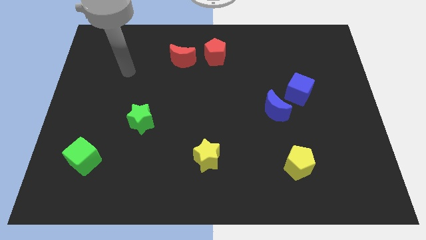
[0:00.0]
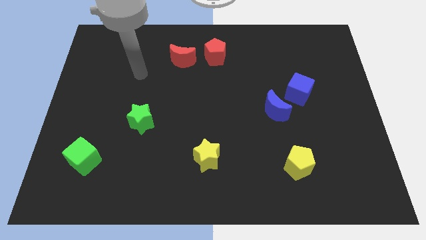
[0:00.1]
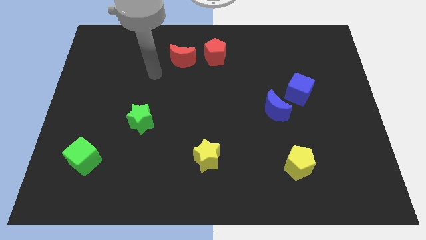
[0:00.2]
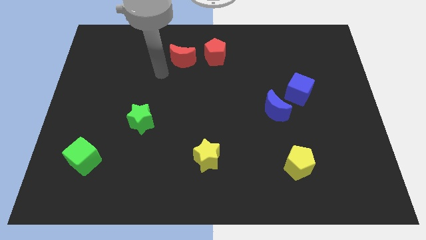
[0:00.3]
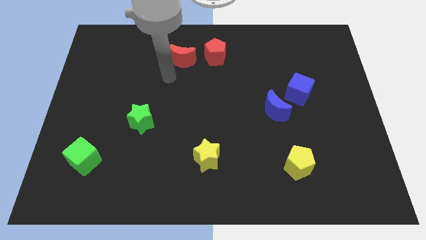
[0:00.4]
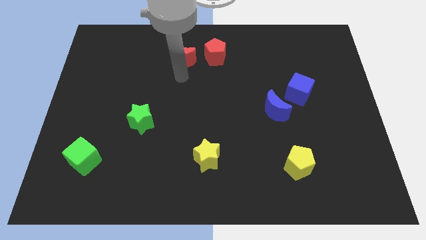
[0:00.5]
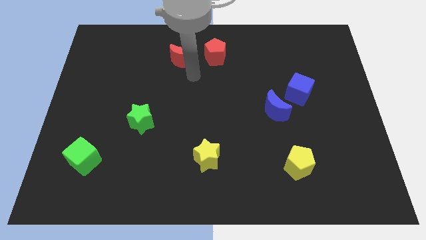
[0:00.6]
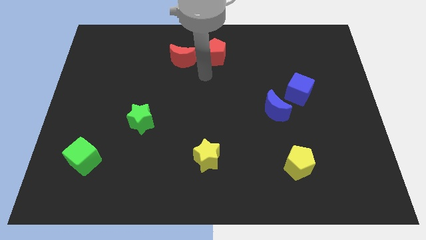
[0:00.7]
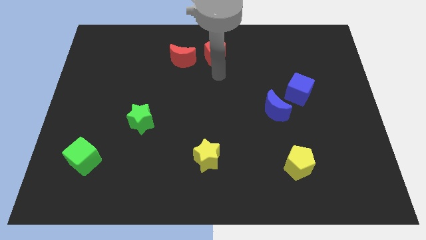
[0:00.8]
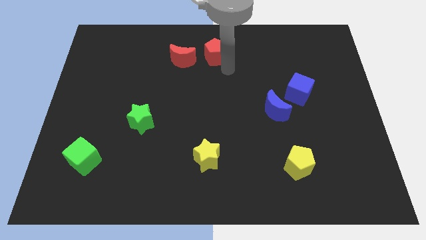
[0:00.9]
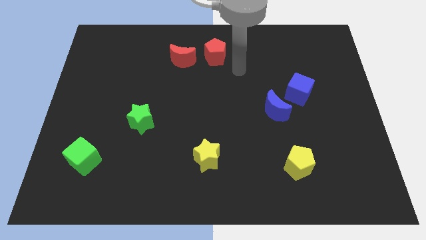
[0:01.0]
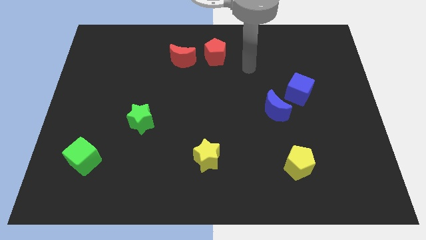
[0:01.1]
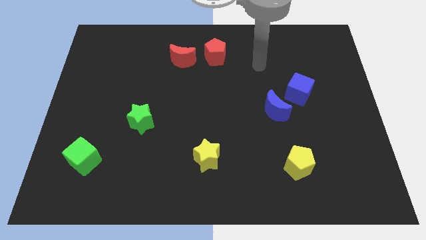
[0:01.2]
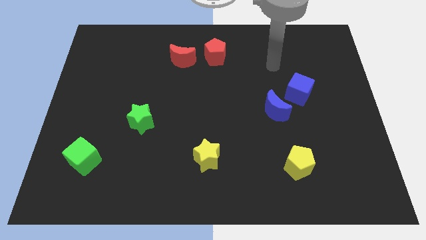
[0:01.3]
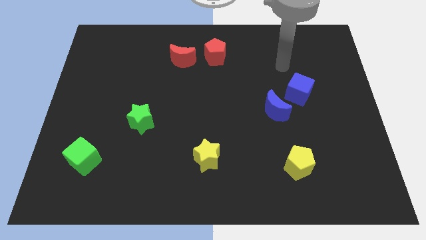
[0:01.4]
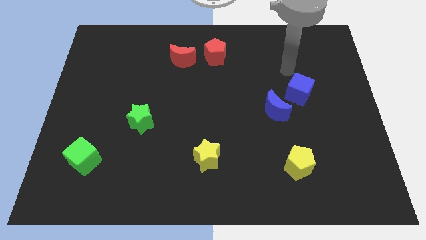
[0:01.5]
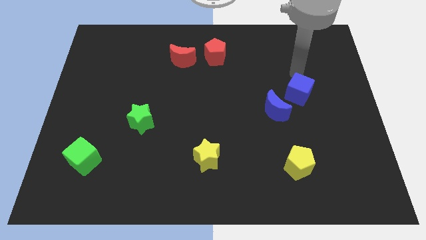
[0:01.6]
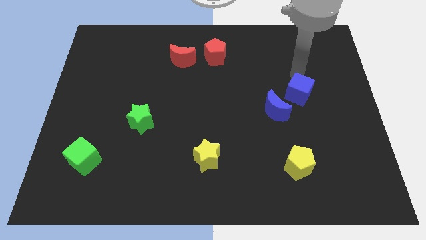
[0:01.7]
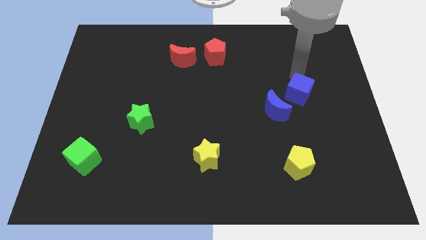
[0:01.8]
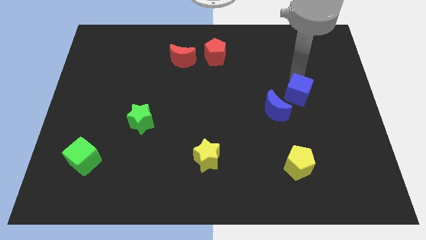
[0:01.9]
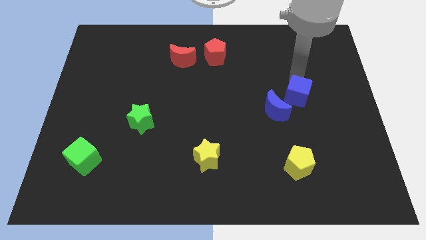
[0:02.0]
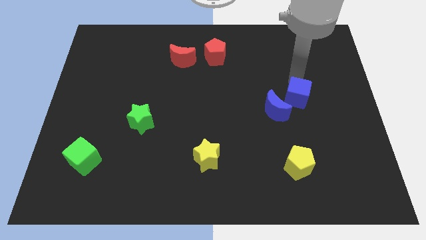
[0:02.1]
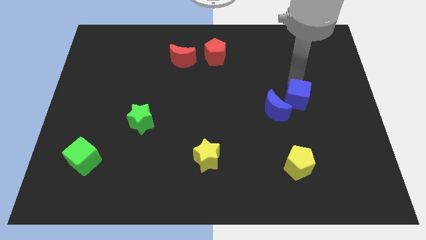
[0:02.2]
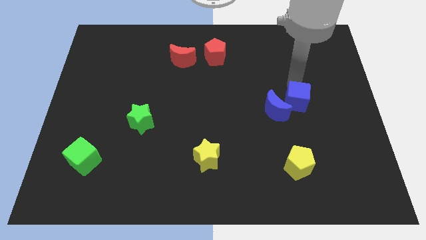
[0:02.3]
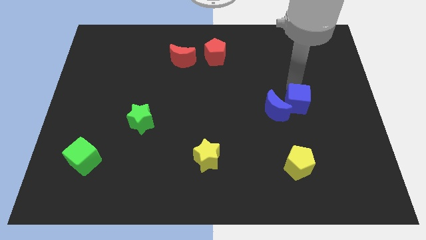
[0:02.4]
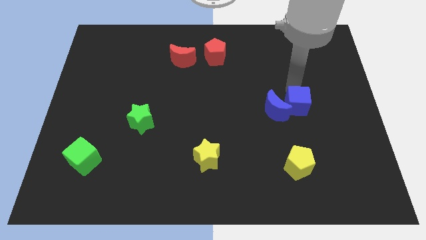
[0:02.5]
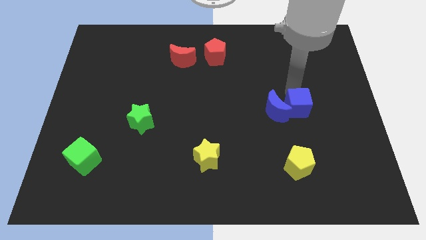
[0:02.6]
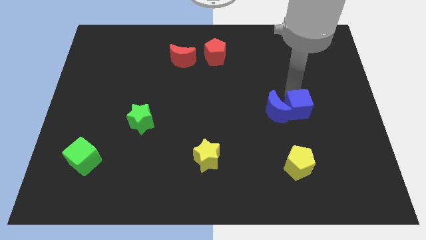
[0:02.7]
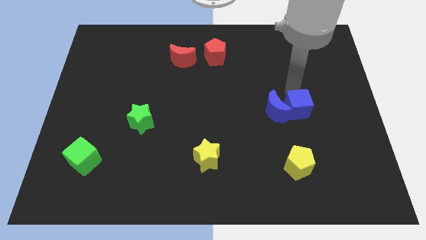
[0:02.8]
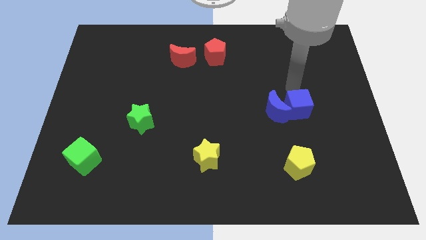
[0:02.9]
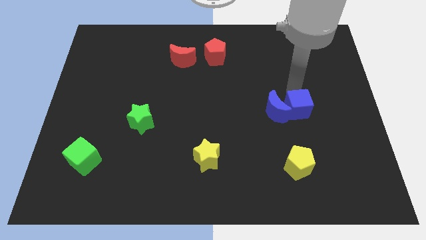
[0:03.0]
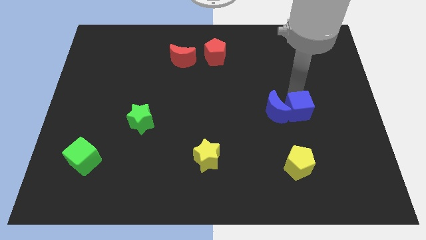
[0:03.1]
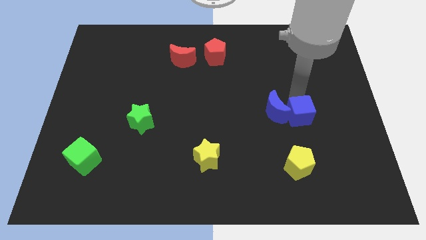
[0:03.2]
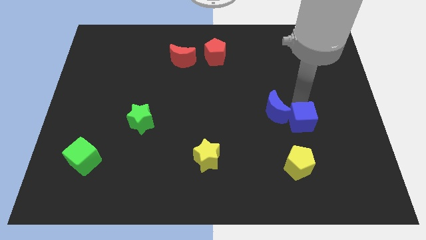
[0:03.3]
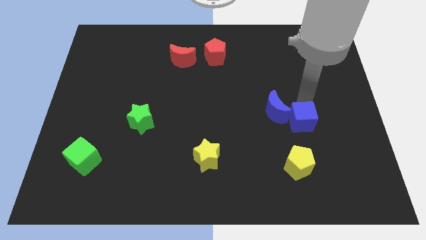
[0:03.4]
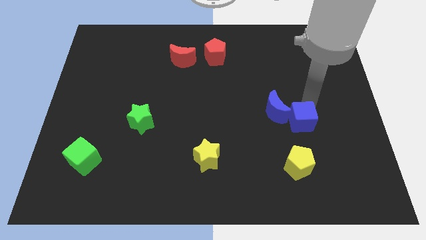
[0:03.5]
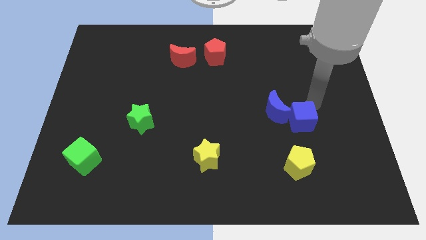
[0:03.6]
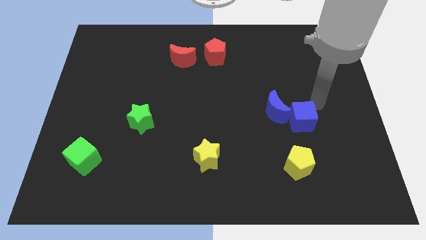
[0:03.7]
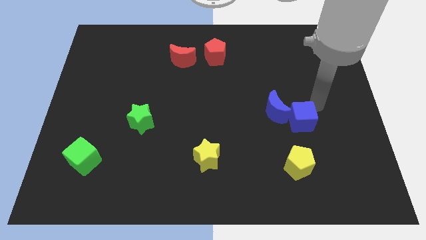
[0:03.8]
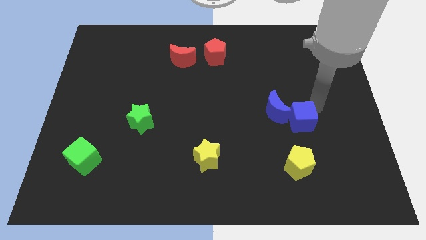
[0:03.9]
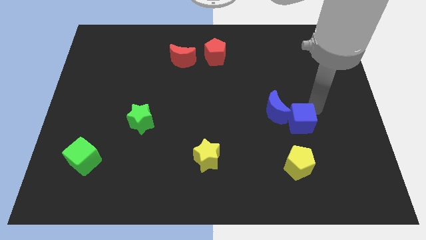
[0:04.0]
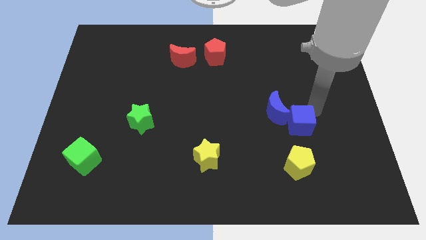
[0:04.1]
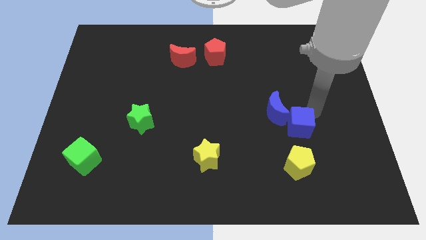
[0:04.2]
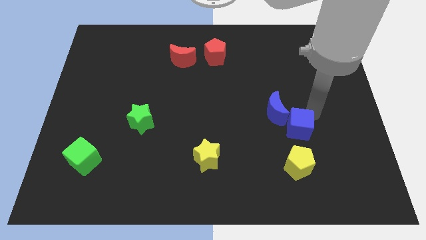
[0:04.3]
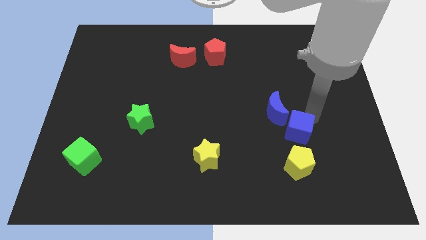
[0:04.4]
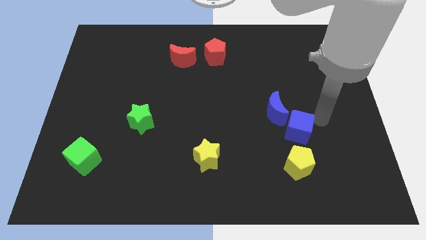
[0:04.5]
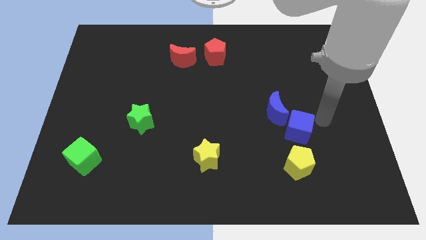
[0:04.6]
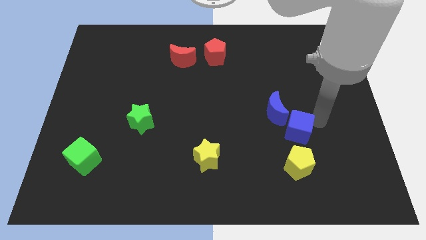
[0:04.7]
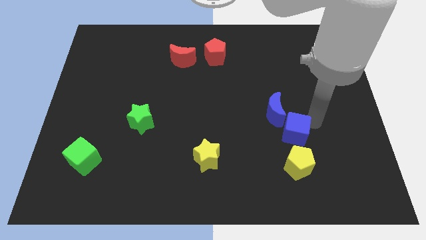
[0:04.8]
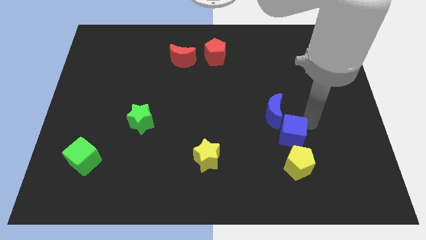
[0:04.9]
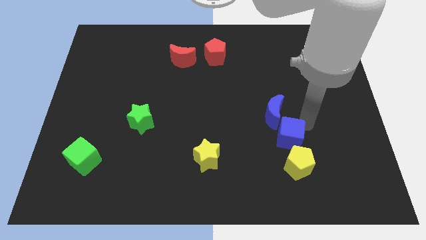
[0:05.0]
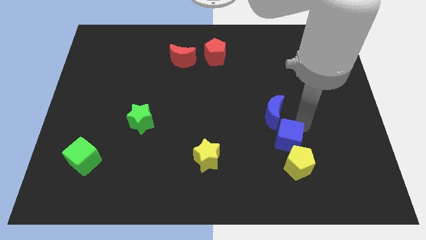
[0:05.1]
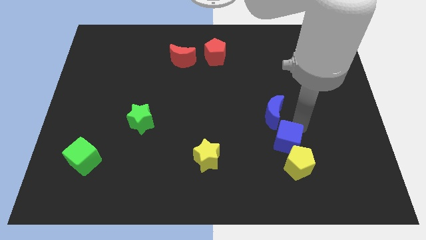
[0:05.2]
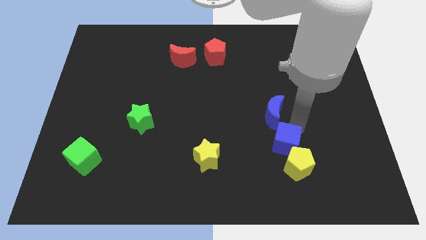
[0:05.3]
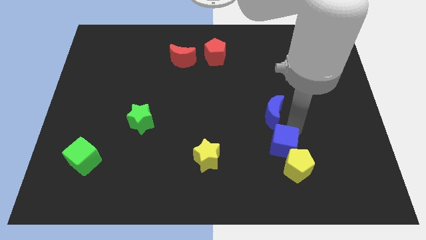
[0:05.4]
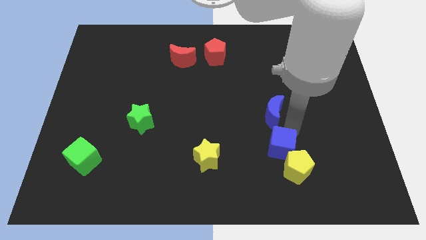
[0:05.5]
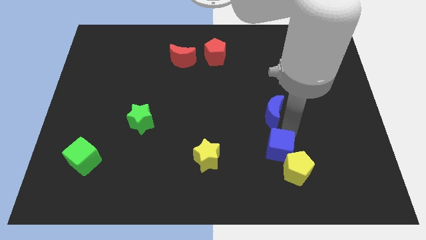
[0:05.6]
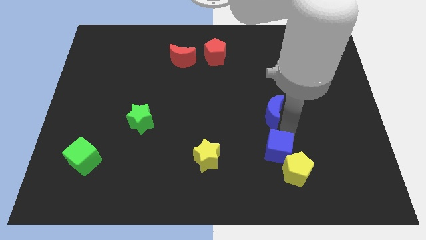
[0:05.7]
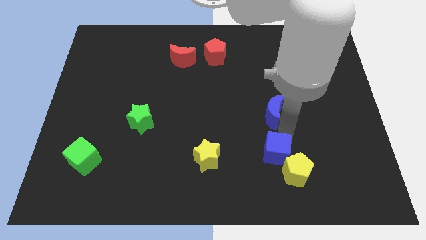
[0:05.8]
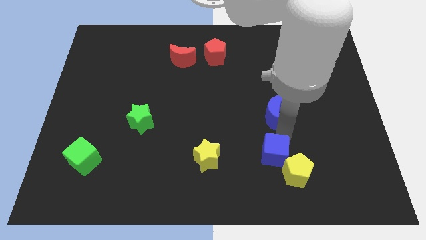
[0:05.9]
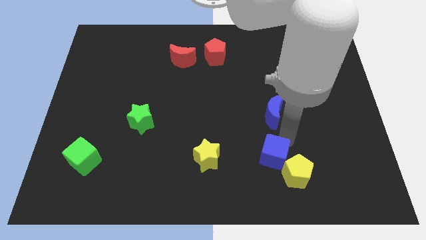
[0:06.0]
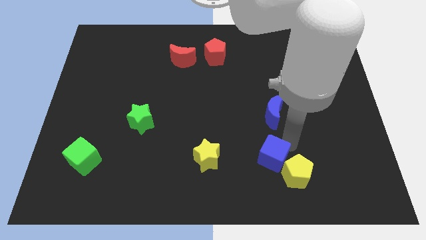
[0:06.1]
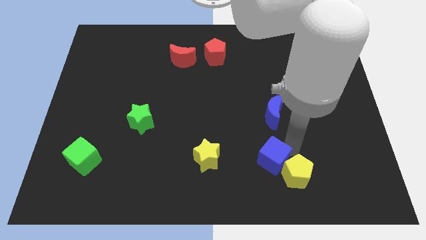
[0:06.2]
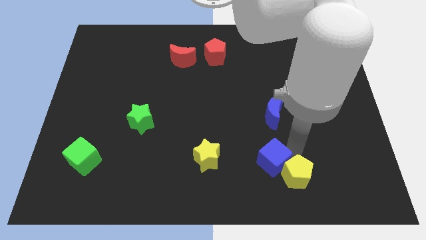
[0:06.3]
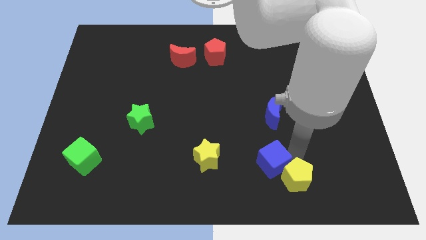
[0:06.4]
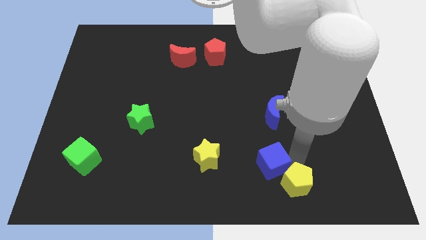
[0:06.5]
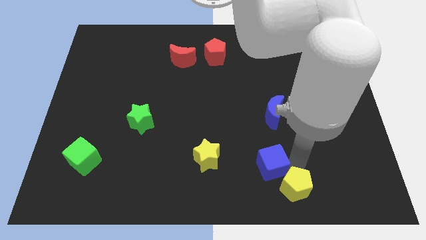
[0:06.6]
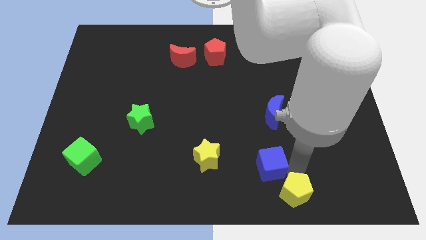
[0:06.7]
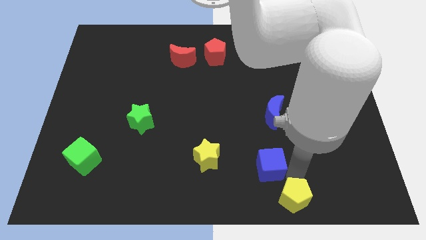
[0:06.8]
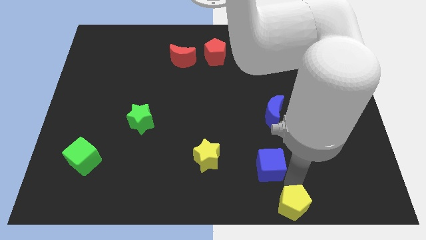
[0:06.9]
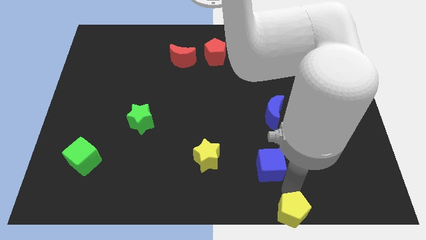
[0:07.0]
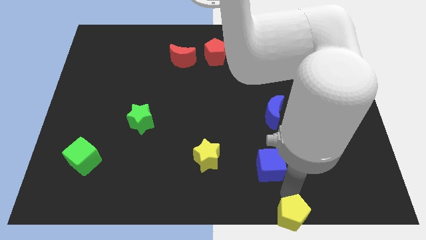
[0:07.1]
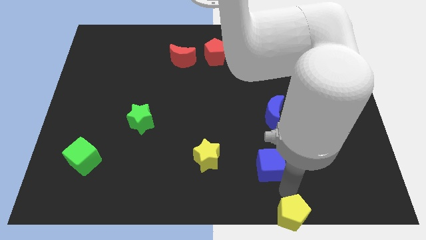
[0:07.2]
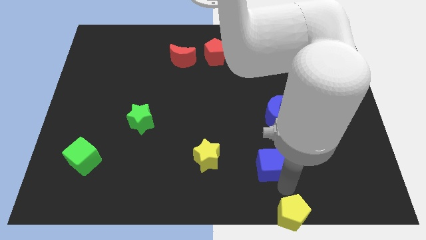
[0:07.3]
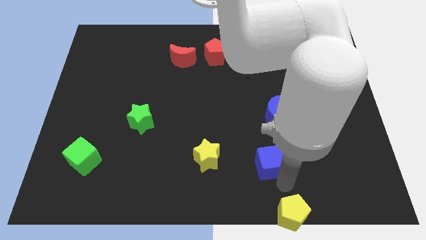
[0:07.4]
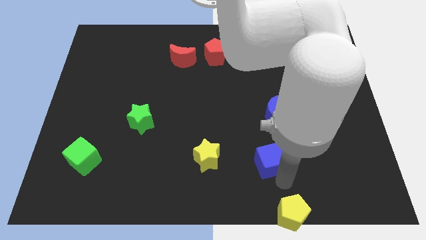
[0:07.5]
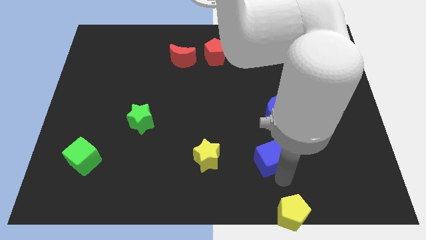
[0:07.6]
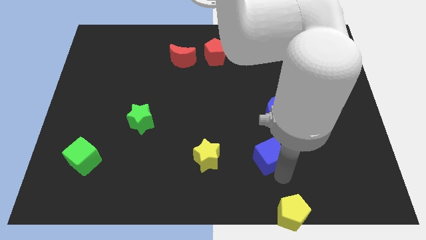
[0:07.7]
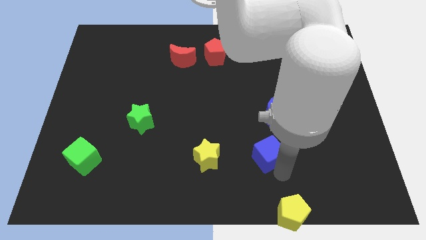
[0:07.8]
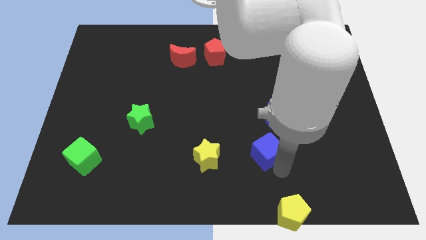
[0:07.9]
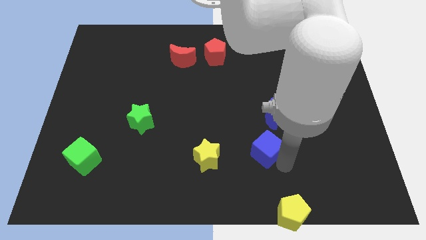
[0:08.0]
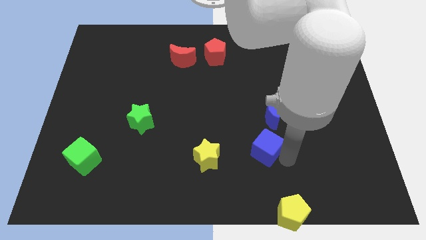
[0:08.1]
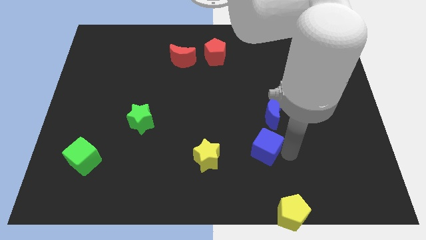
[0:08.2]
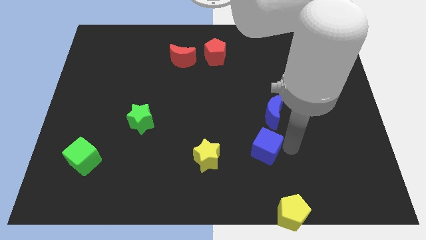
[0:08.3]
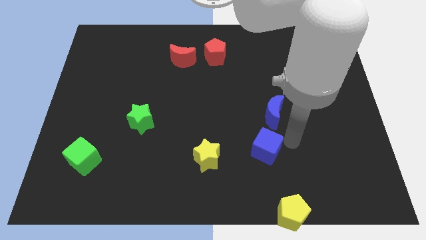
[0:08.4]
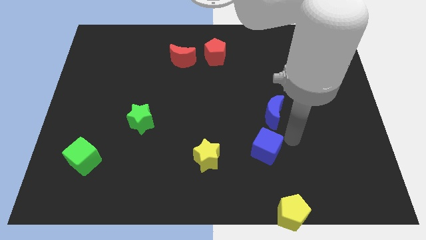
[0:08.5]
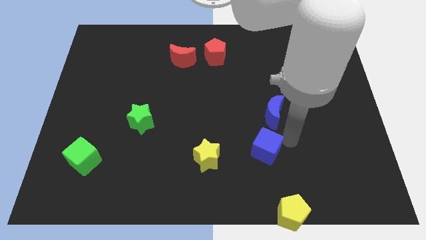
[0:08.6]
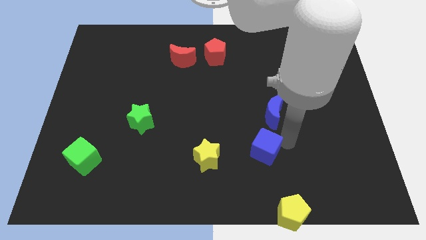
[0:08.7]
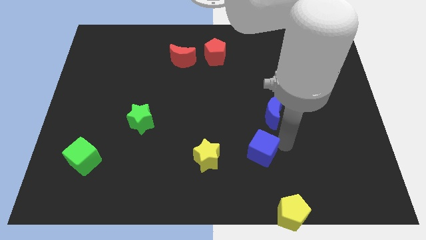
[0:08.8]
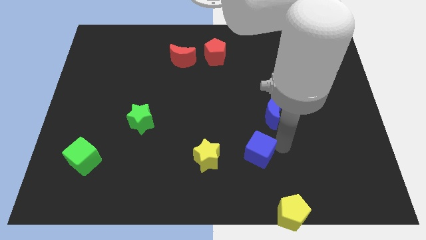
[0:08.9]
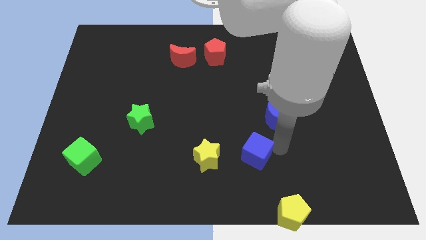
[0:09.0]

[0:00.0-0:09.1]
push the blue cube diagonally downwards and to the left
